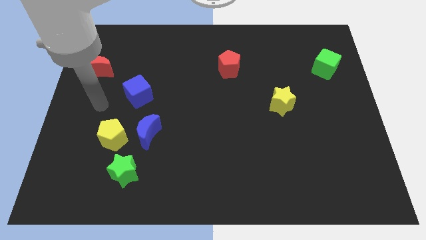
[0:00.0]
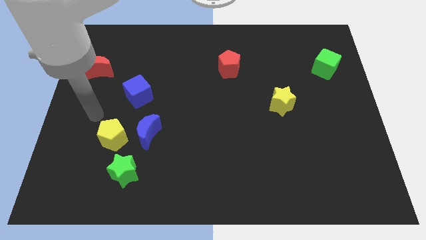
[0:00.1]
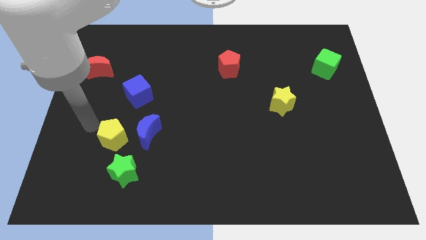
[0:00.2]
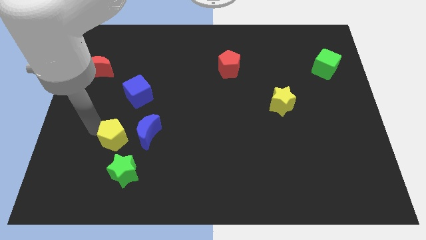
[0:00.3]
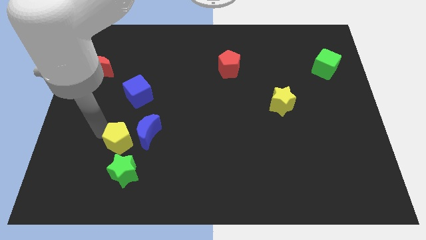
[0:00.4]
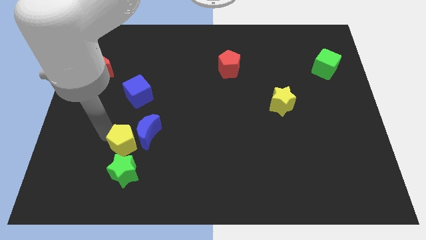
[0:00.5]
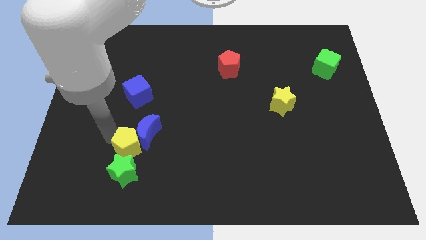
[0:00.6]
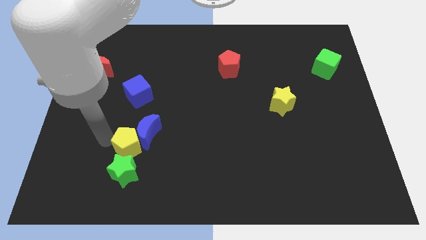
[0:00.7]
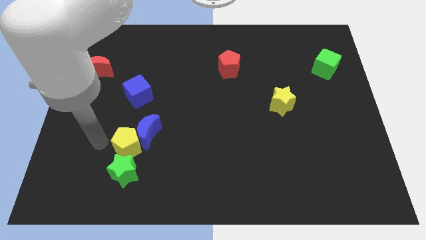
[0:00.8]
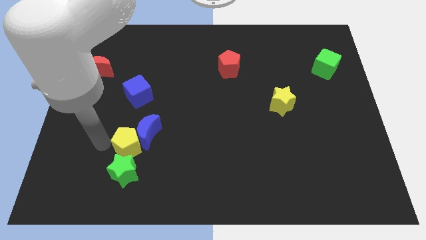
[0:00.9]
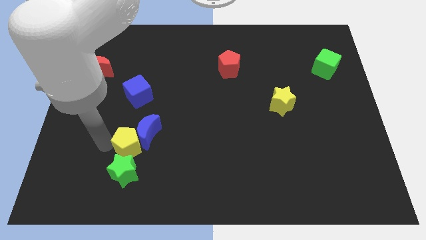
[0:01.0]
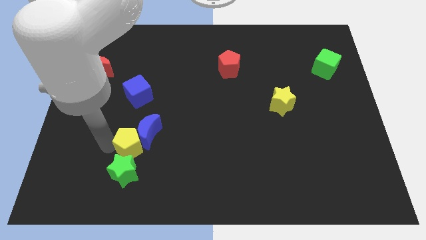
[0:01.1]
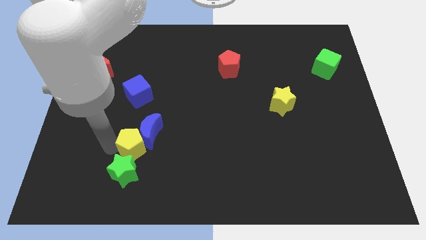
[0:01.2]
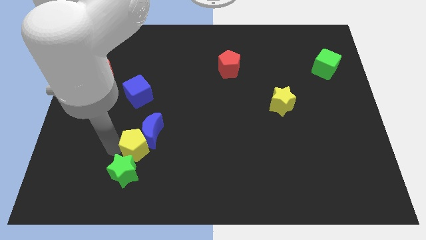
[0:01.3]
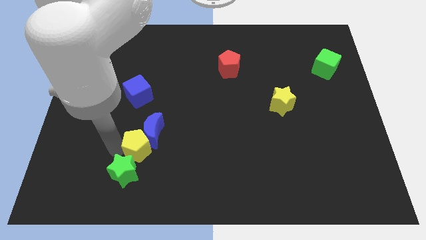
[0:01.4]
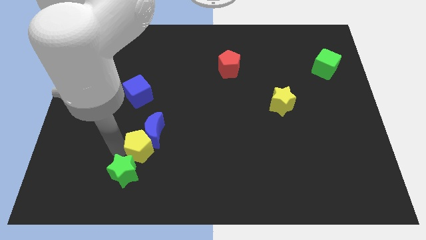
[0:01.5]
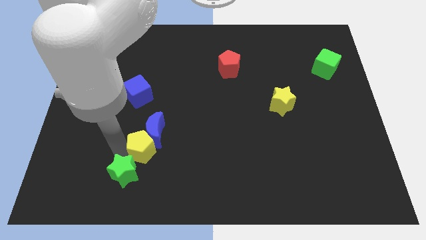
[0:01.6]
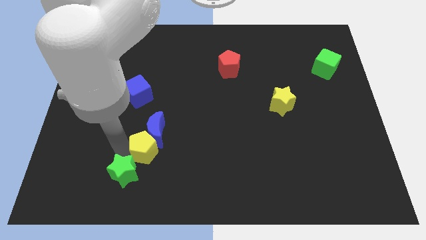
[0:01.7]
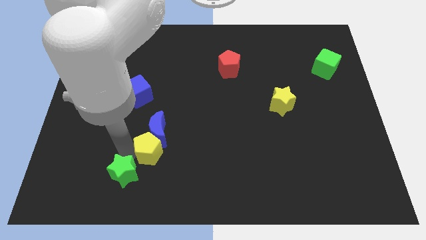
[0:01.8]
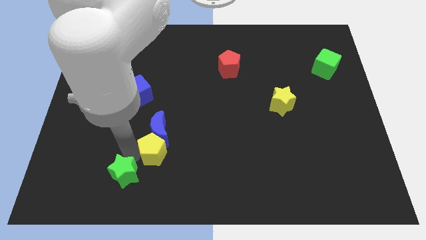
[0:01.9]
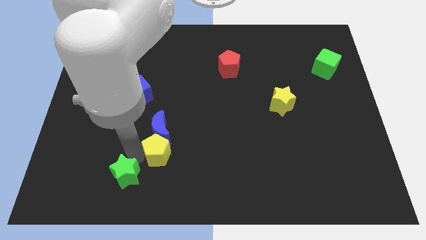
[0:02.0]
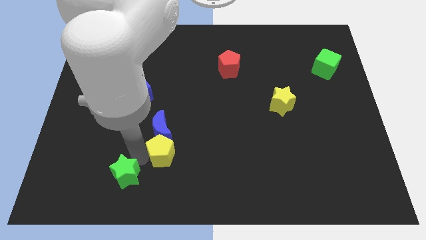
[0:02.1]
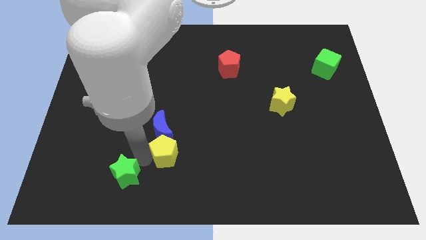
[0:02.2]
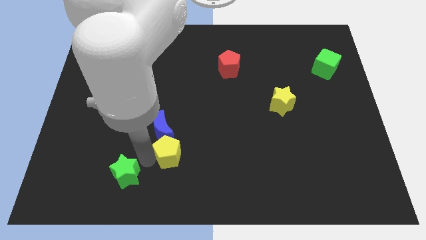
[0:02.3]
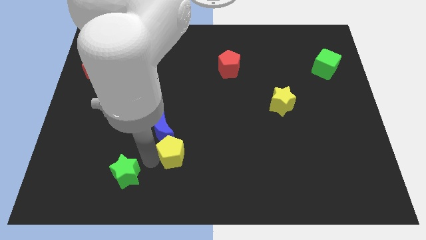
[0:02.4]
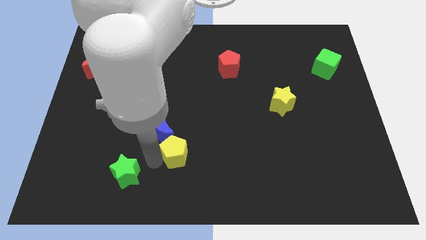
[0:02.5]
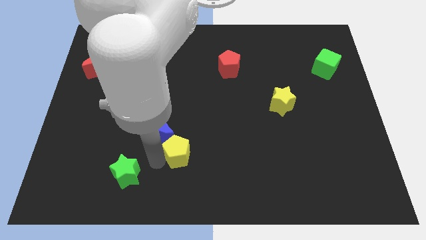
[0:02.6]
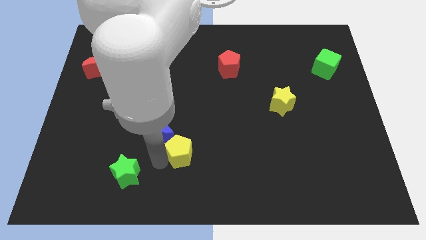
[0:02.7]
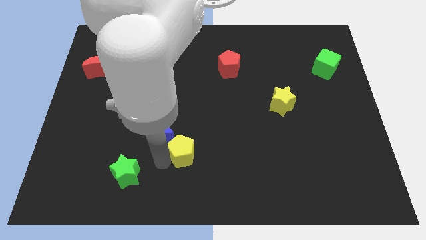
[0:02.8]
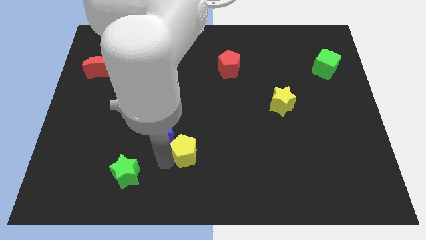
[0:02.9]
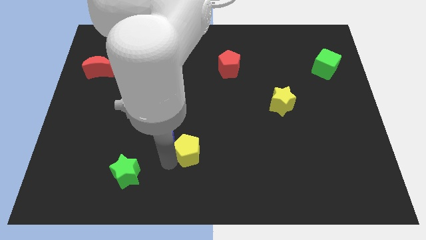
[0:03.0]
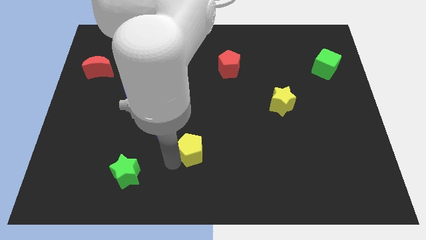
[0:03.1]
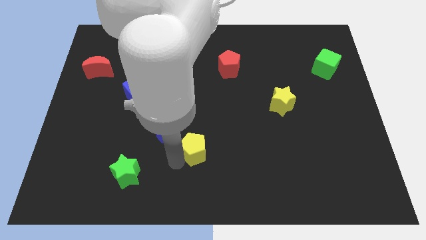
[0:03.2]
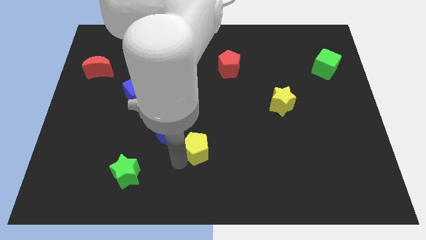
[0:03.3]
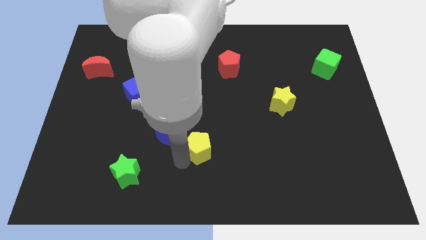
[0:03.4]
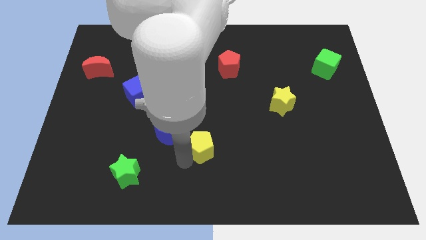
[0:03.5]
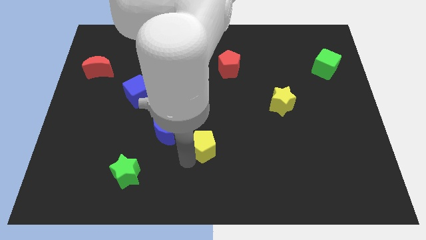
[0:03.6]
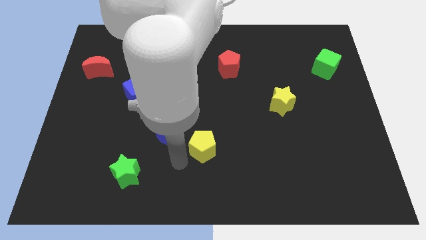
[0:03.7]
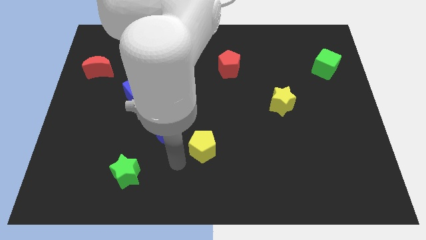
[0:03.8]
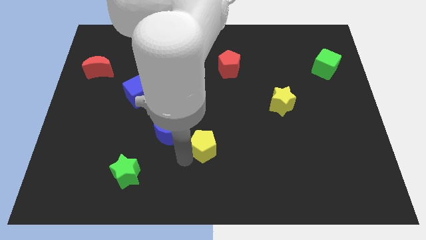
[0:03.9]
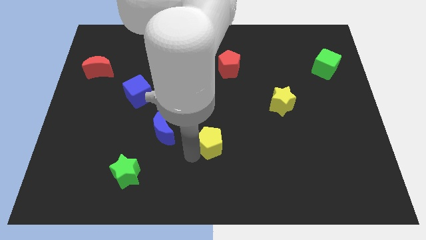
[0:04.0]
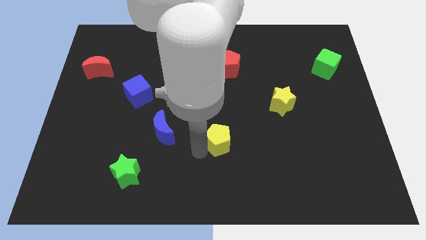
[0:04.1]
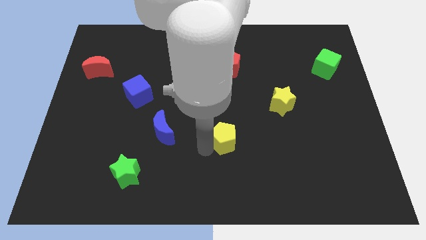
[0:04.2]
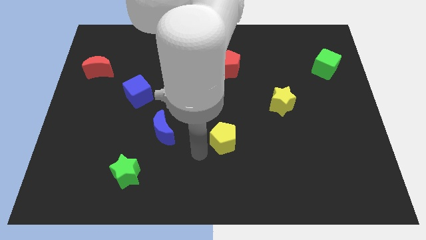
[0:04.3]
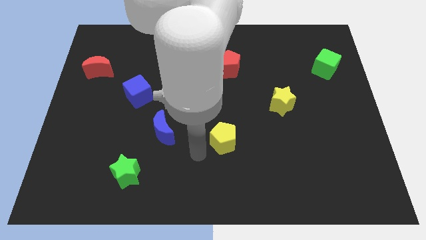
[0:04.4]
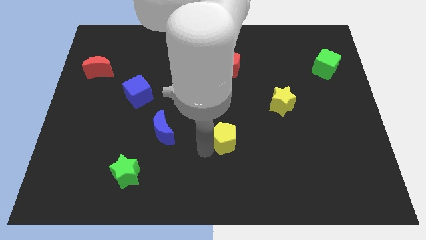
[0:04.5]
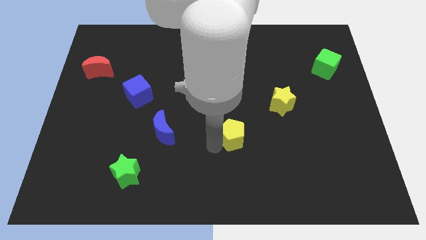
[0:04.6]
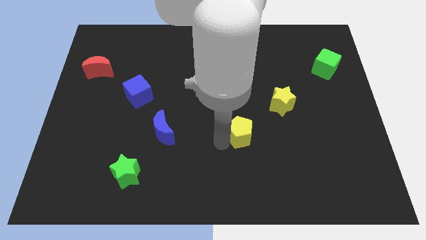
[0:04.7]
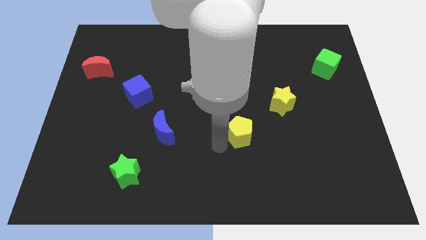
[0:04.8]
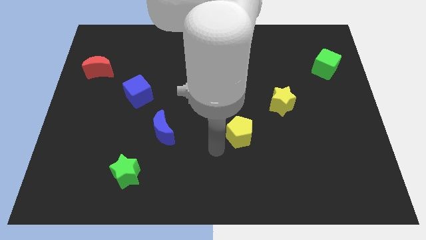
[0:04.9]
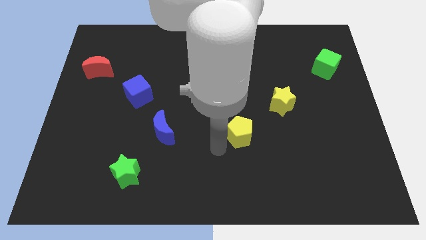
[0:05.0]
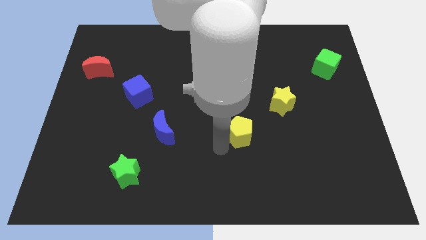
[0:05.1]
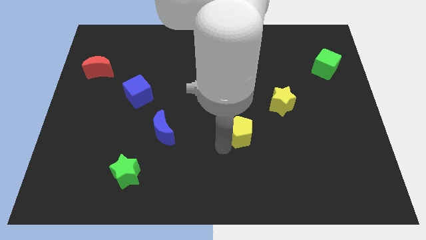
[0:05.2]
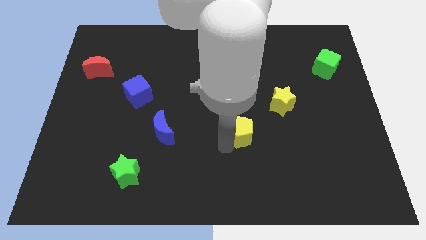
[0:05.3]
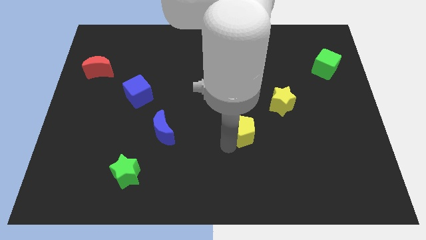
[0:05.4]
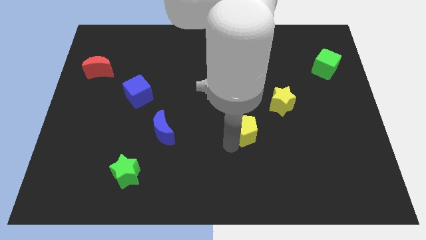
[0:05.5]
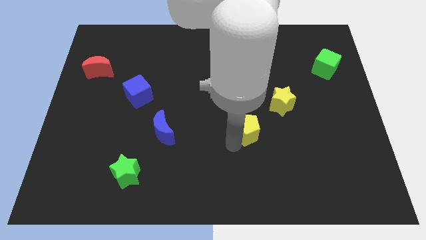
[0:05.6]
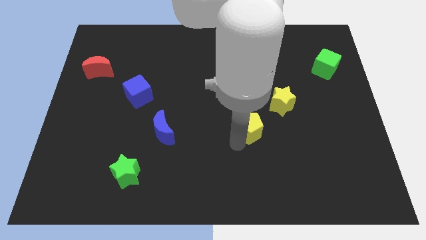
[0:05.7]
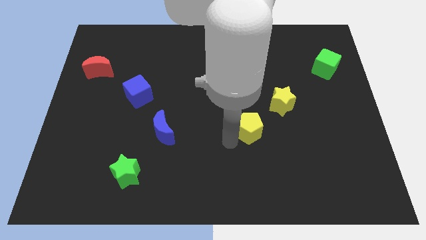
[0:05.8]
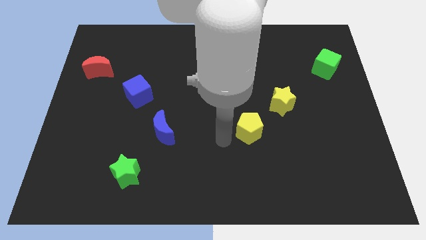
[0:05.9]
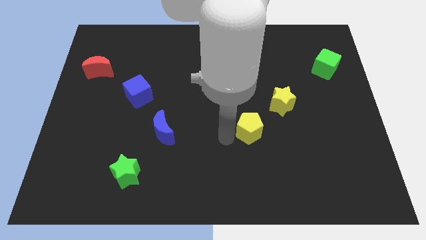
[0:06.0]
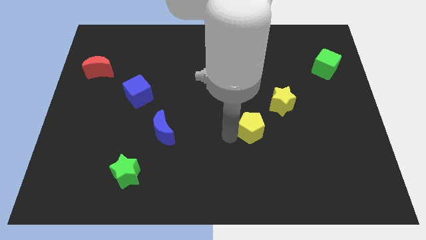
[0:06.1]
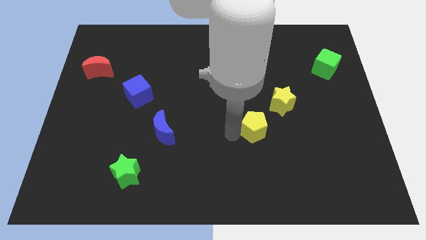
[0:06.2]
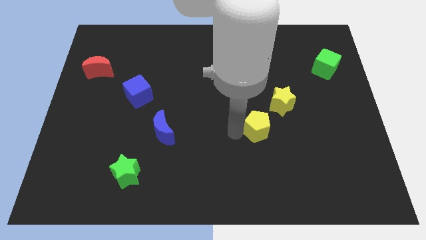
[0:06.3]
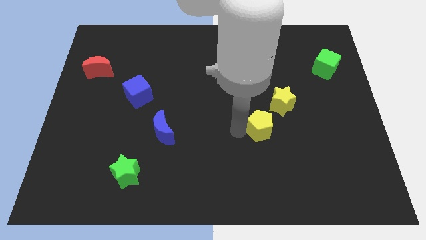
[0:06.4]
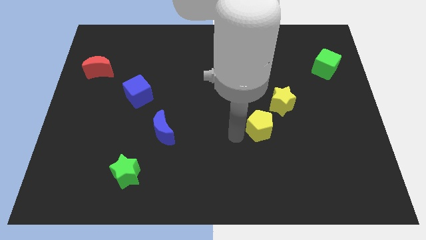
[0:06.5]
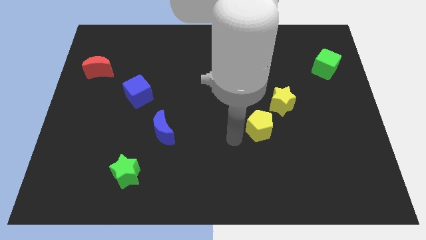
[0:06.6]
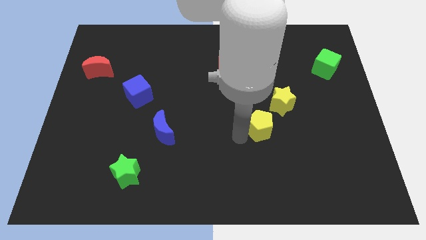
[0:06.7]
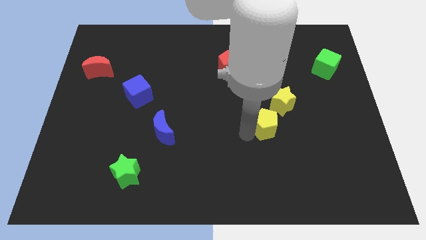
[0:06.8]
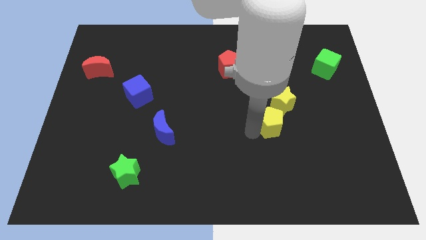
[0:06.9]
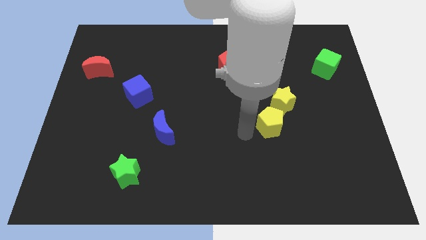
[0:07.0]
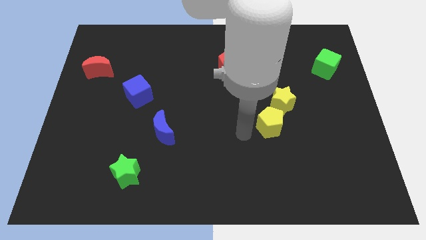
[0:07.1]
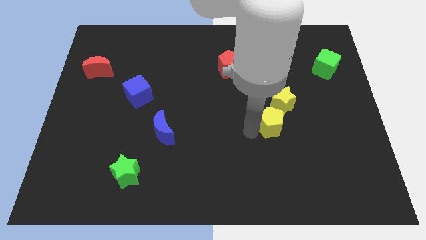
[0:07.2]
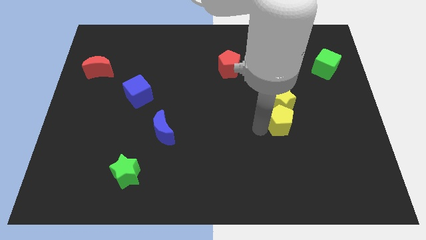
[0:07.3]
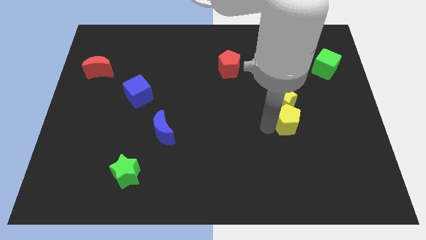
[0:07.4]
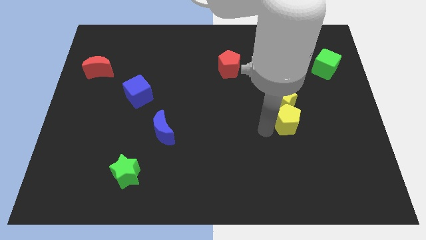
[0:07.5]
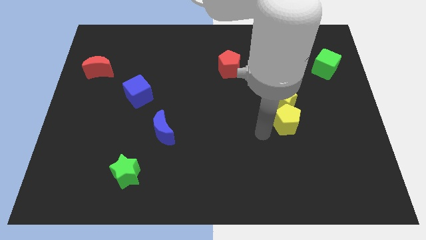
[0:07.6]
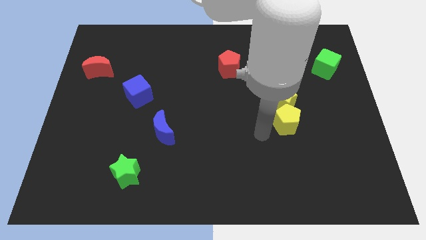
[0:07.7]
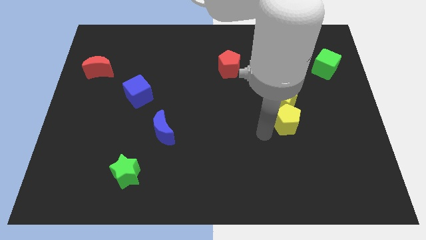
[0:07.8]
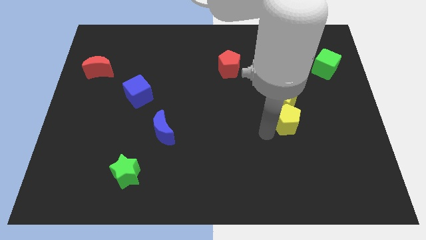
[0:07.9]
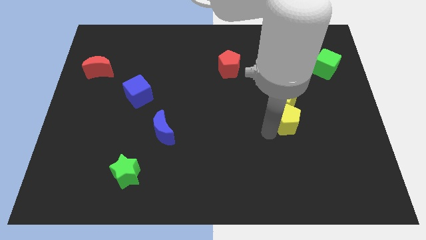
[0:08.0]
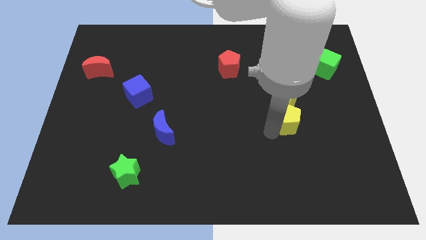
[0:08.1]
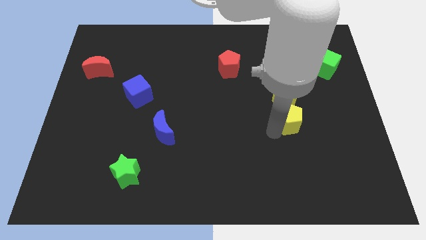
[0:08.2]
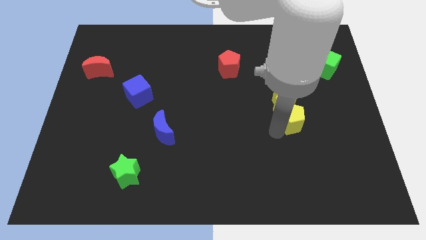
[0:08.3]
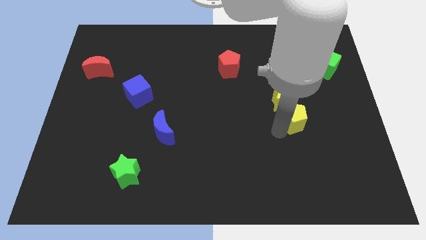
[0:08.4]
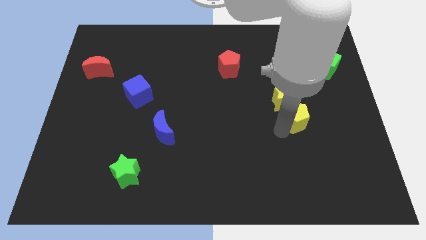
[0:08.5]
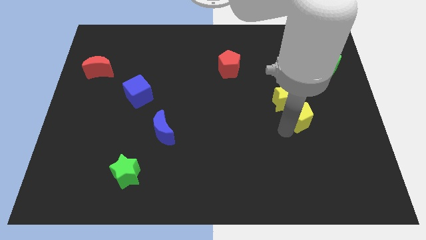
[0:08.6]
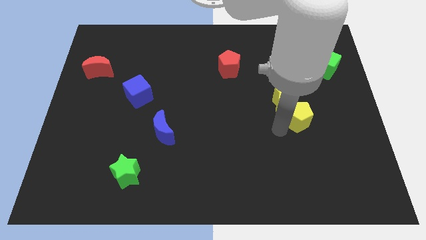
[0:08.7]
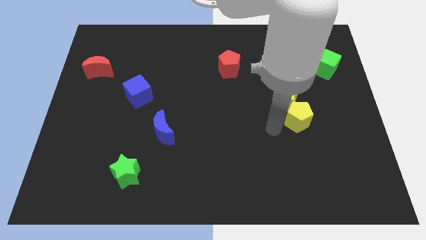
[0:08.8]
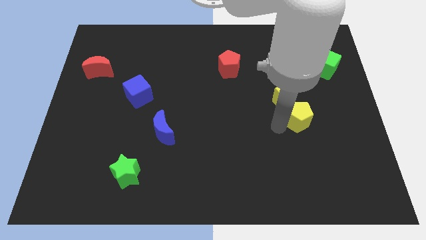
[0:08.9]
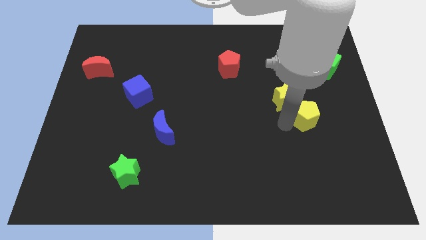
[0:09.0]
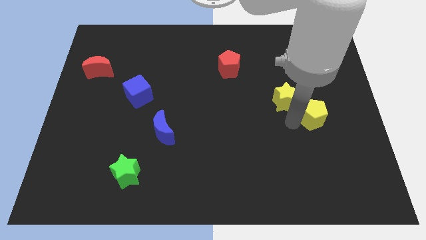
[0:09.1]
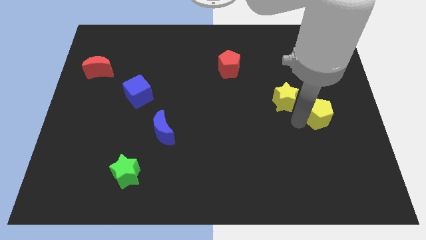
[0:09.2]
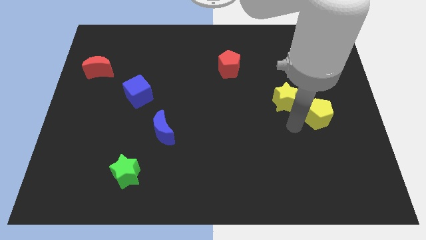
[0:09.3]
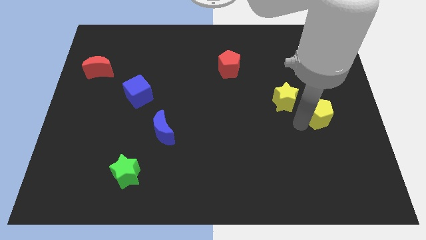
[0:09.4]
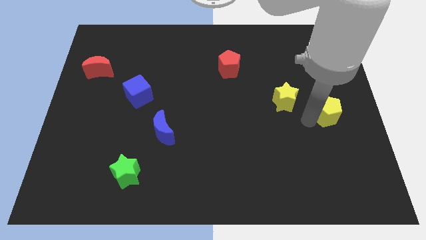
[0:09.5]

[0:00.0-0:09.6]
put the yellow pentagon to the center right
